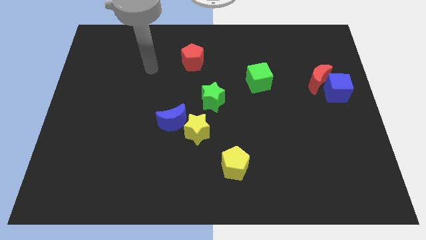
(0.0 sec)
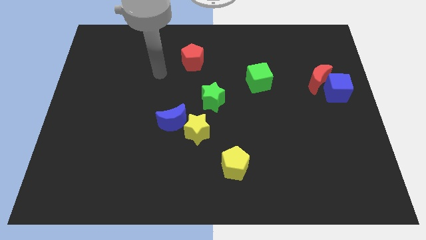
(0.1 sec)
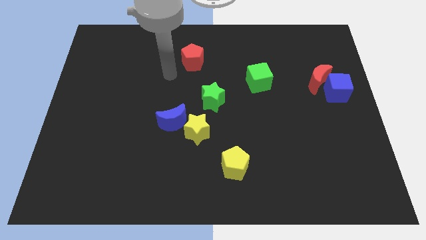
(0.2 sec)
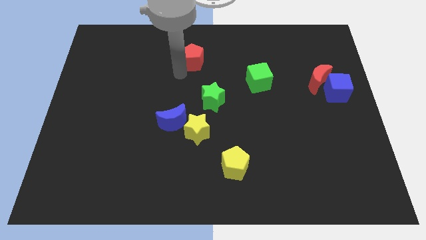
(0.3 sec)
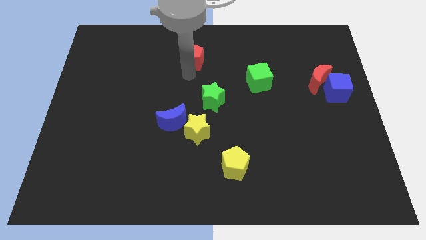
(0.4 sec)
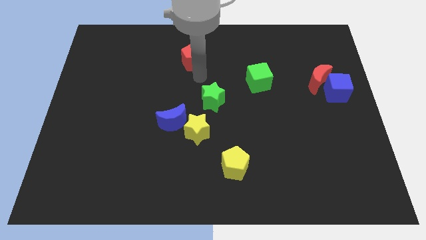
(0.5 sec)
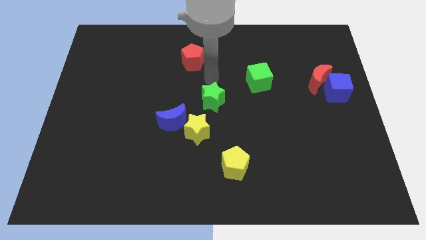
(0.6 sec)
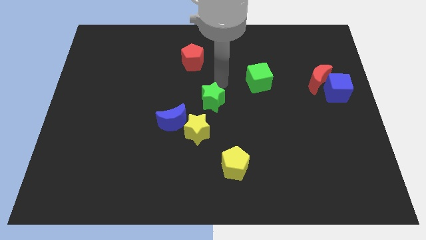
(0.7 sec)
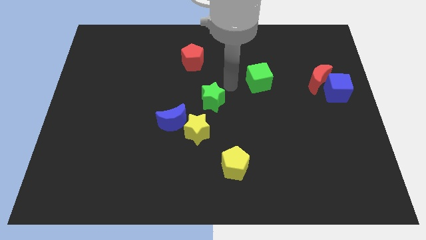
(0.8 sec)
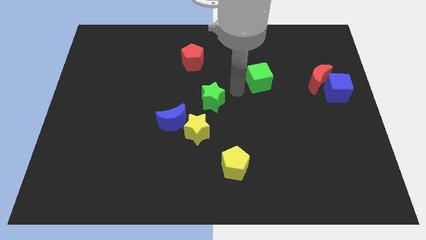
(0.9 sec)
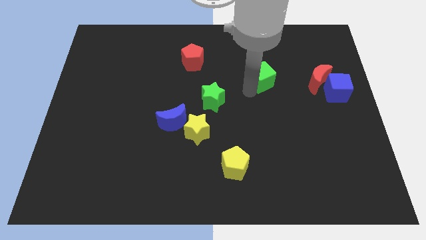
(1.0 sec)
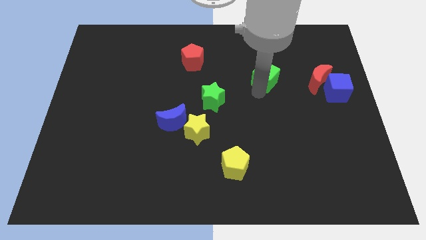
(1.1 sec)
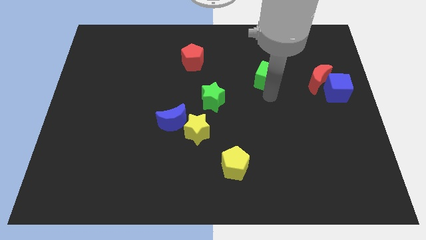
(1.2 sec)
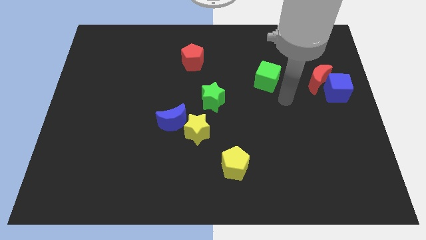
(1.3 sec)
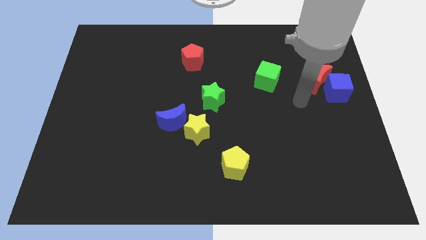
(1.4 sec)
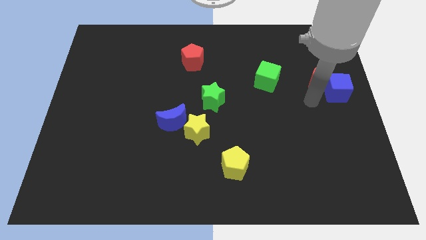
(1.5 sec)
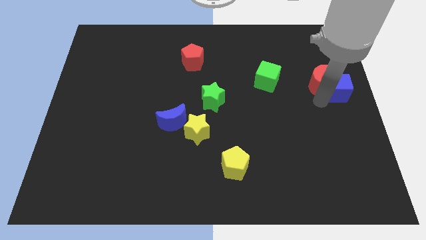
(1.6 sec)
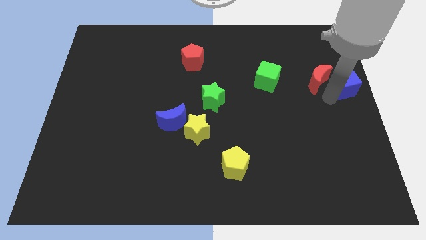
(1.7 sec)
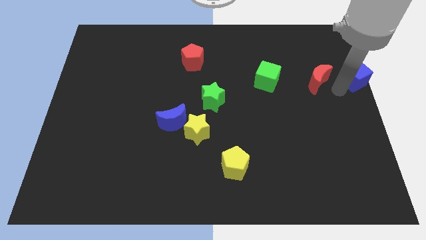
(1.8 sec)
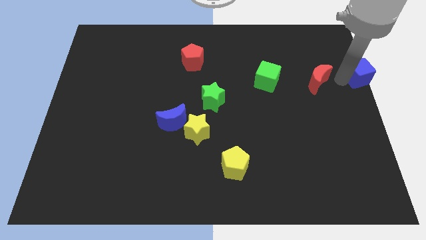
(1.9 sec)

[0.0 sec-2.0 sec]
separate the red moon from the blue cube

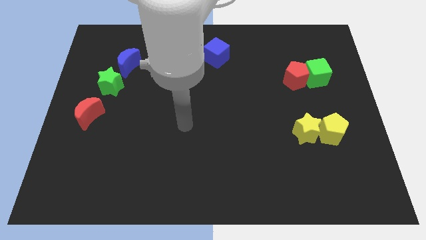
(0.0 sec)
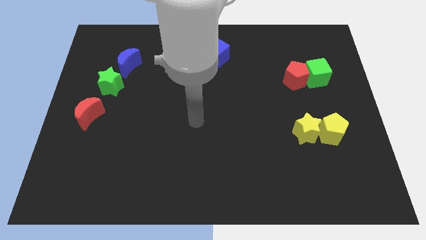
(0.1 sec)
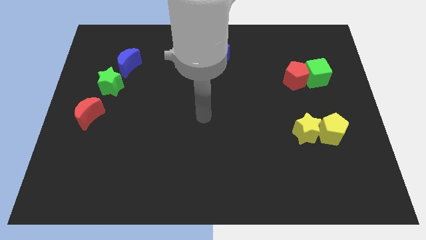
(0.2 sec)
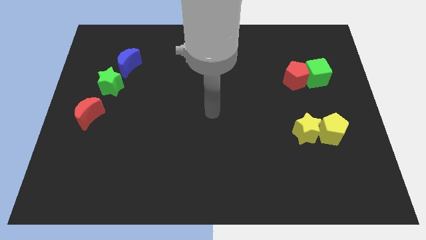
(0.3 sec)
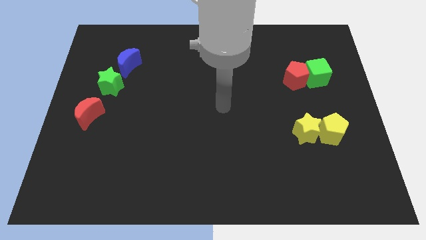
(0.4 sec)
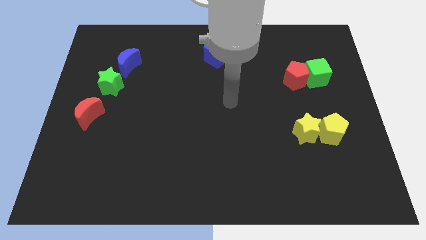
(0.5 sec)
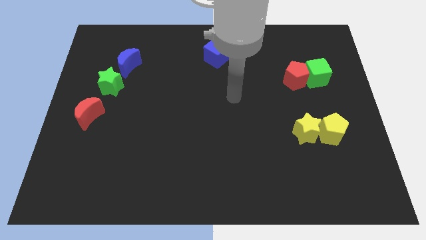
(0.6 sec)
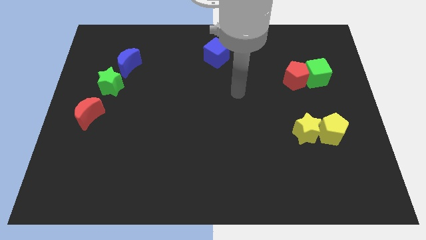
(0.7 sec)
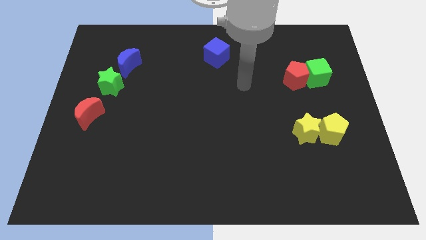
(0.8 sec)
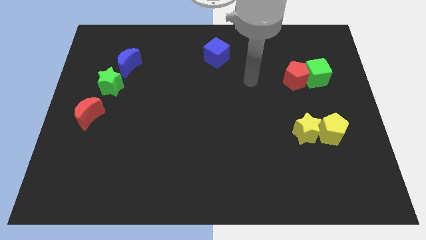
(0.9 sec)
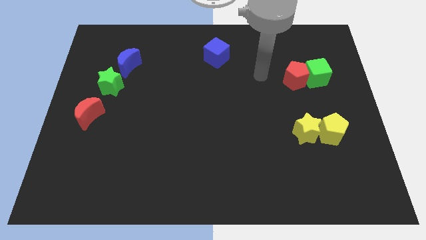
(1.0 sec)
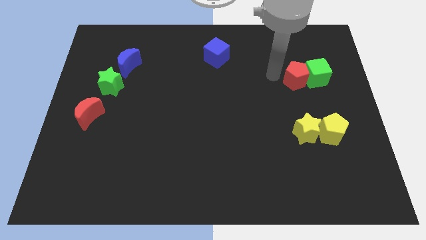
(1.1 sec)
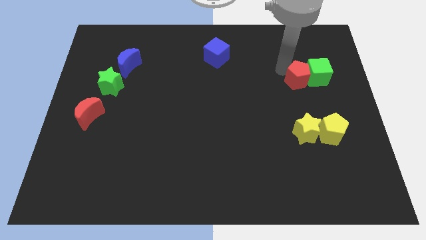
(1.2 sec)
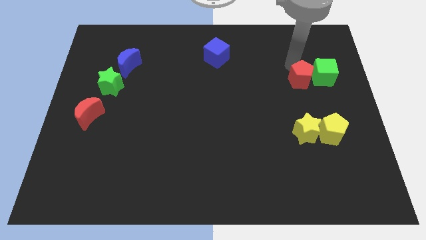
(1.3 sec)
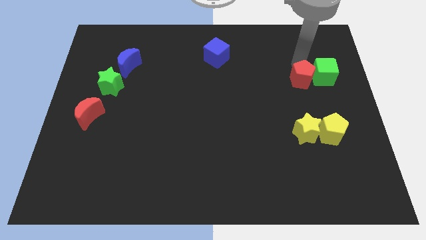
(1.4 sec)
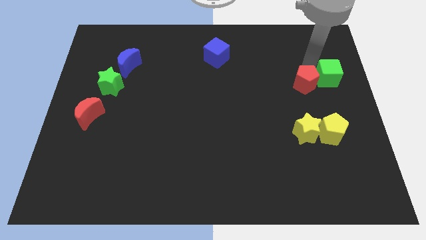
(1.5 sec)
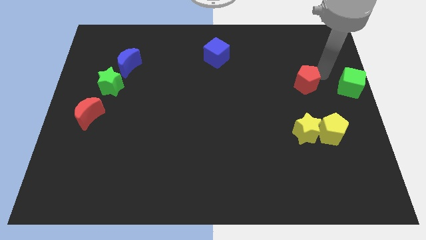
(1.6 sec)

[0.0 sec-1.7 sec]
move the red pentagon away from the green cube

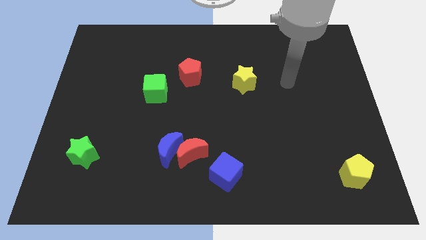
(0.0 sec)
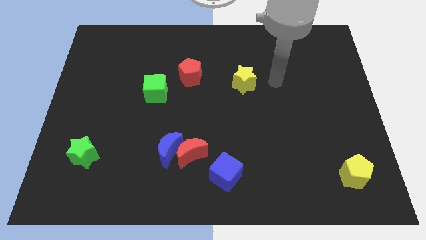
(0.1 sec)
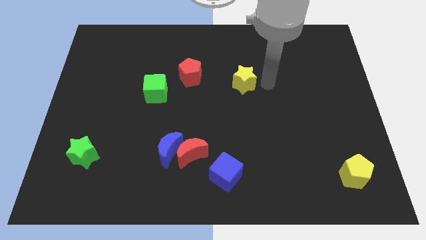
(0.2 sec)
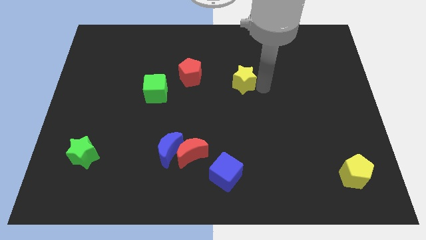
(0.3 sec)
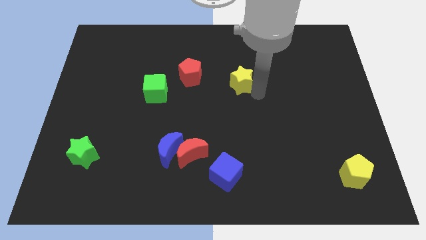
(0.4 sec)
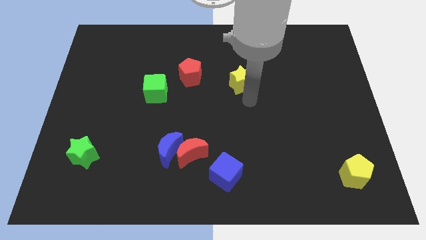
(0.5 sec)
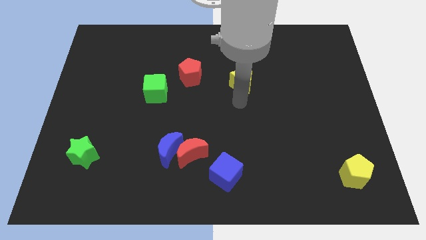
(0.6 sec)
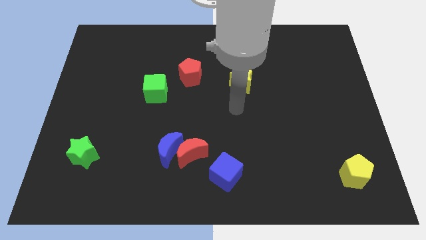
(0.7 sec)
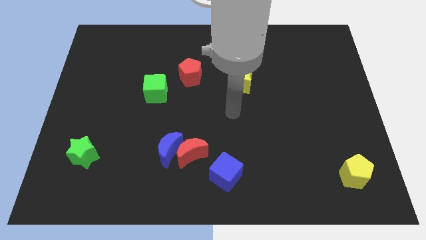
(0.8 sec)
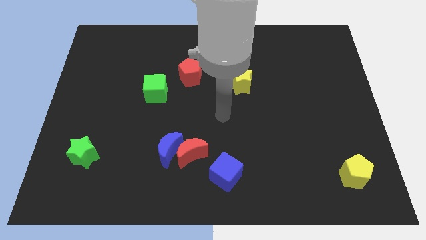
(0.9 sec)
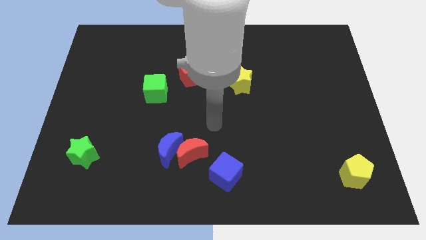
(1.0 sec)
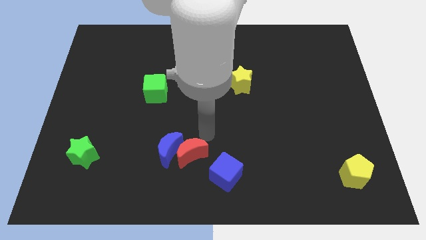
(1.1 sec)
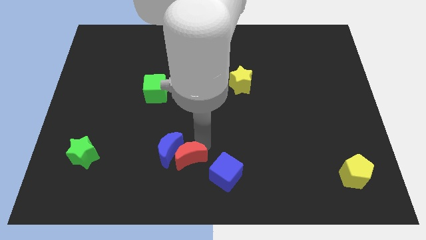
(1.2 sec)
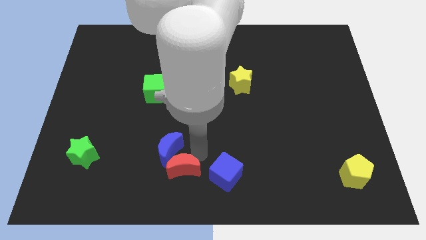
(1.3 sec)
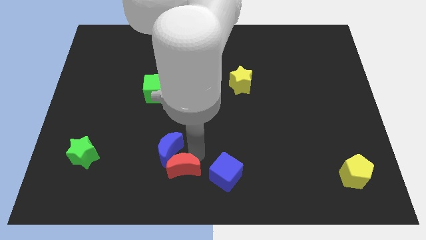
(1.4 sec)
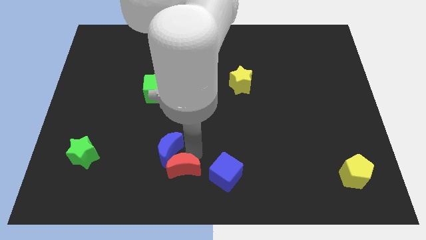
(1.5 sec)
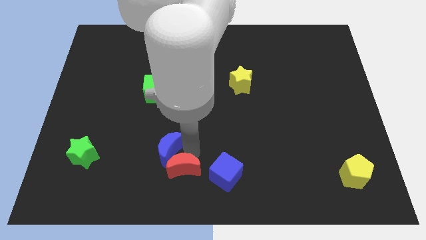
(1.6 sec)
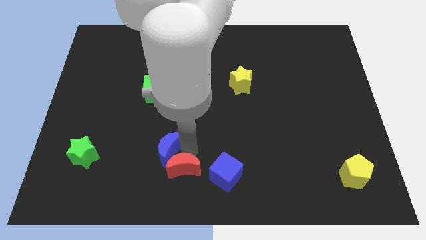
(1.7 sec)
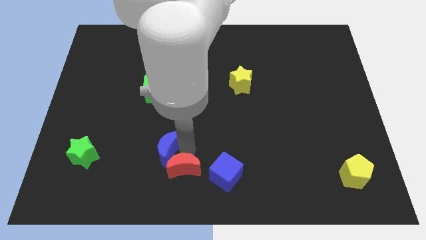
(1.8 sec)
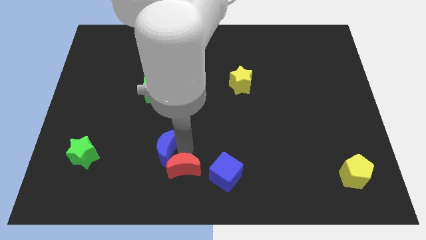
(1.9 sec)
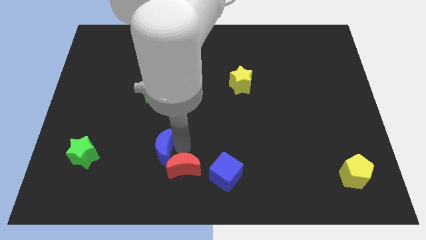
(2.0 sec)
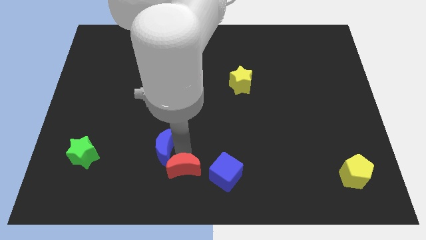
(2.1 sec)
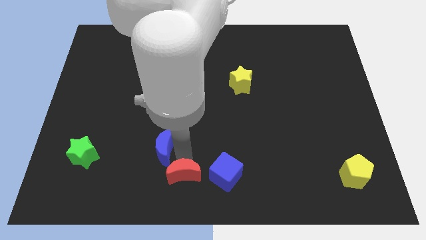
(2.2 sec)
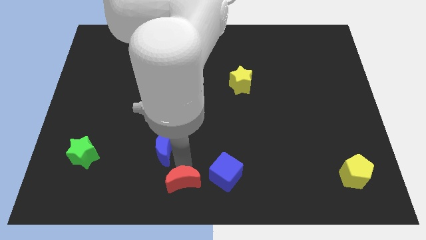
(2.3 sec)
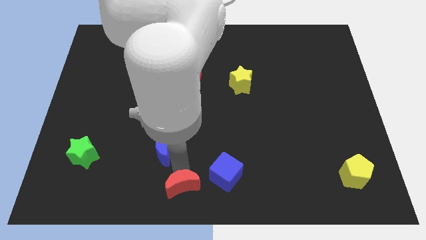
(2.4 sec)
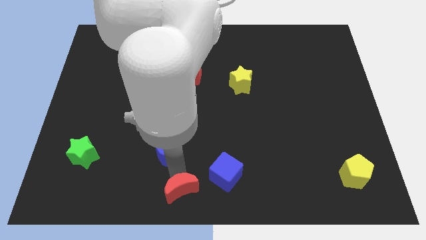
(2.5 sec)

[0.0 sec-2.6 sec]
pull the blue moon apart from the red moon

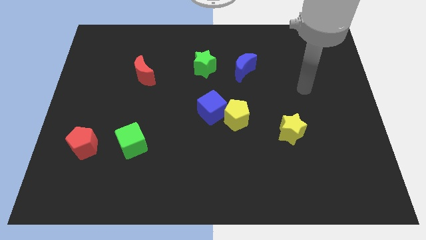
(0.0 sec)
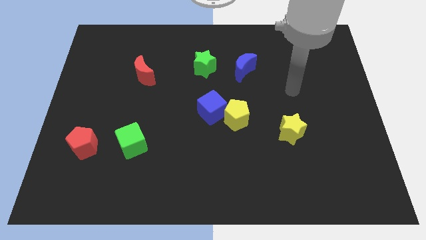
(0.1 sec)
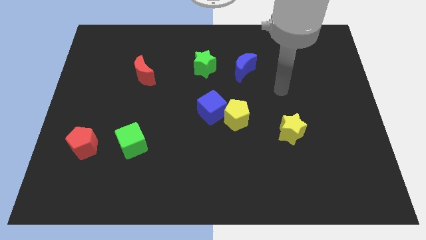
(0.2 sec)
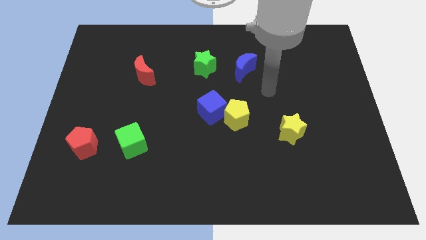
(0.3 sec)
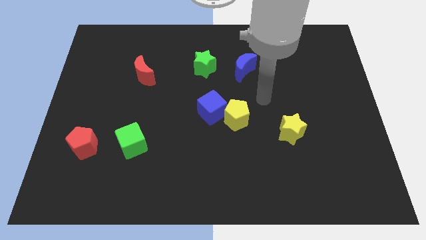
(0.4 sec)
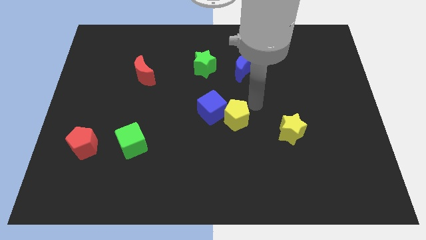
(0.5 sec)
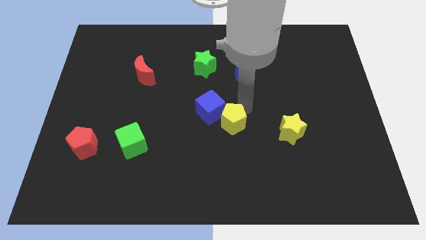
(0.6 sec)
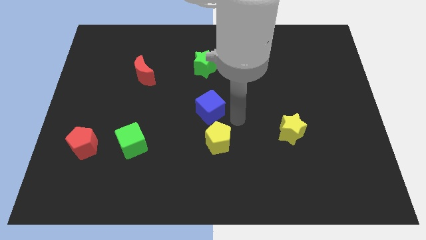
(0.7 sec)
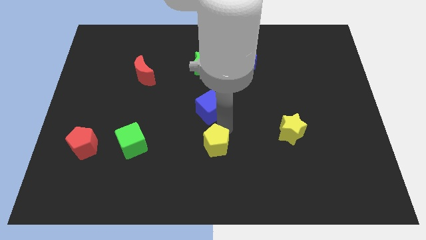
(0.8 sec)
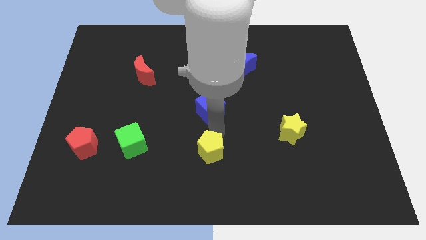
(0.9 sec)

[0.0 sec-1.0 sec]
separate the blue cube from the yellow pentagon

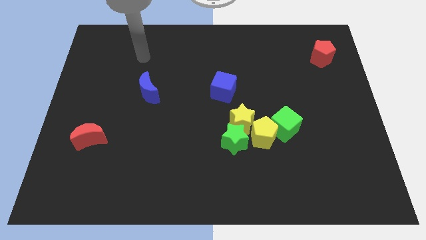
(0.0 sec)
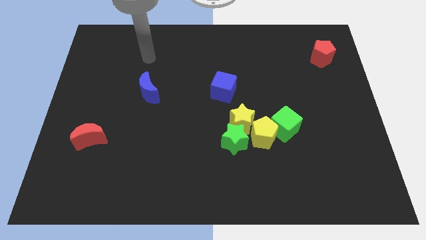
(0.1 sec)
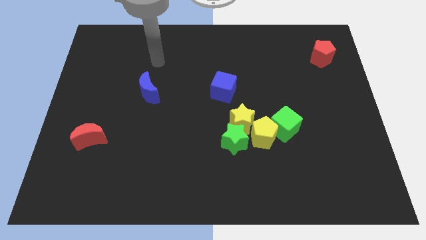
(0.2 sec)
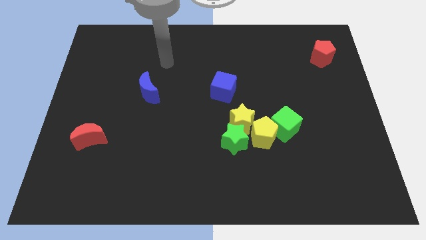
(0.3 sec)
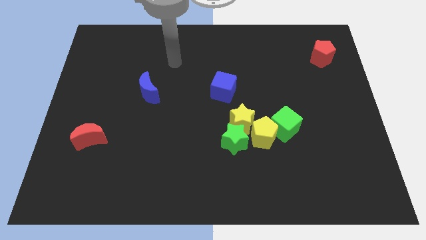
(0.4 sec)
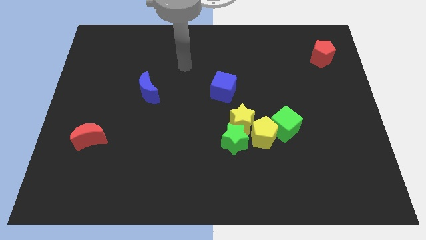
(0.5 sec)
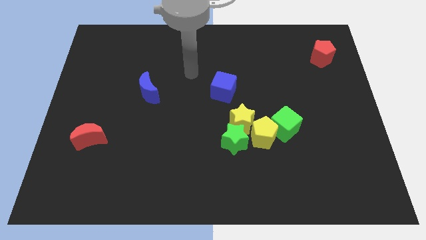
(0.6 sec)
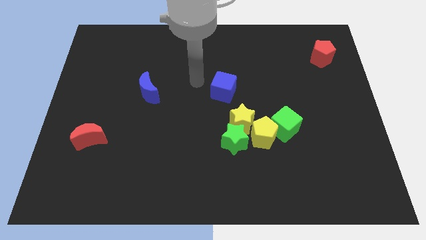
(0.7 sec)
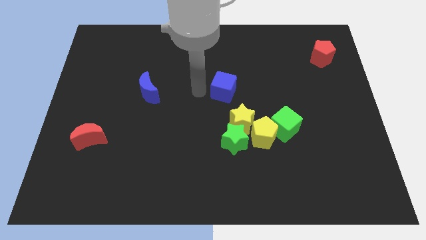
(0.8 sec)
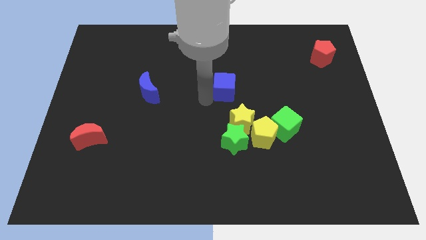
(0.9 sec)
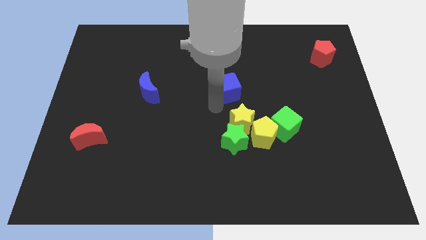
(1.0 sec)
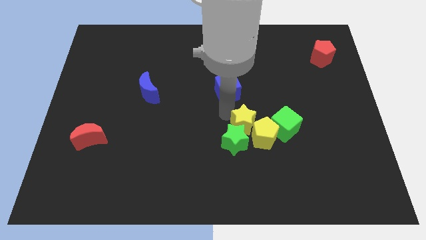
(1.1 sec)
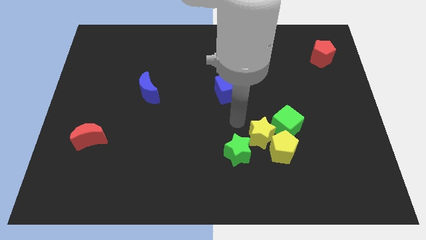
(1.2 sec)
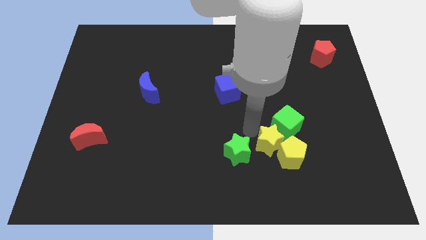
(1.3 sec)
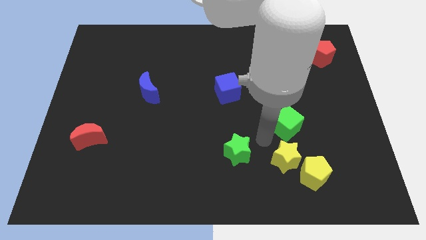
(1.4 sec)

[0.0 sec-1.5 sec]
move the yellow pentagon away from the green cube, yellow star, and green star

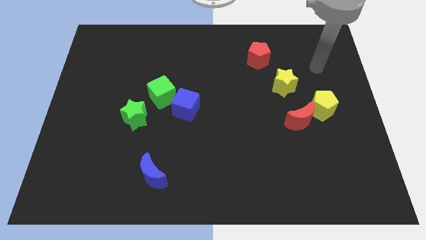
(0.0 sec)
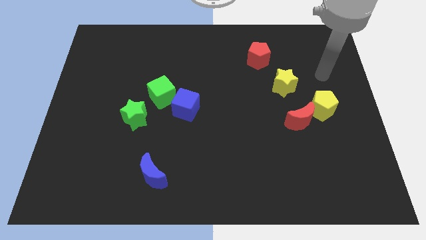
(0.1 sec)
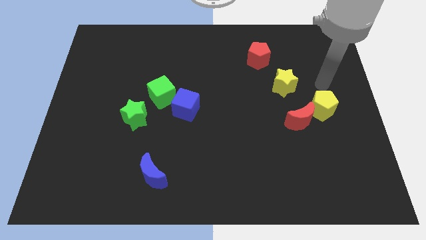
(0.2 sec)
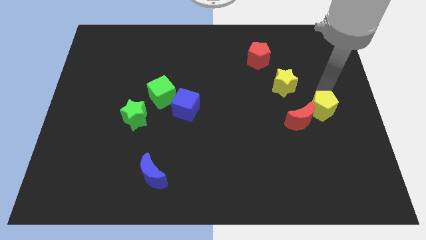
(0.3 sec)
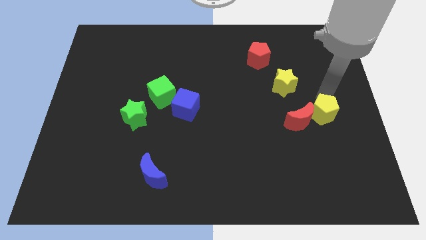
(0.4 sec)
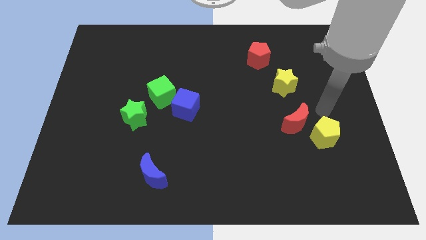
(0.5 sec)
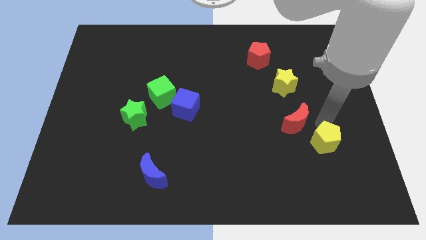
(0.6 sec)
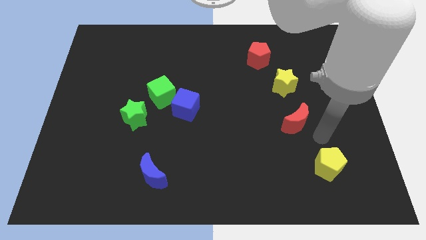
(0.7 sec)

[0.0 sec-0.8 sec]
separate the red moon from the yellow pentagon
